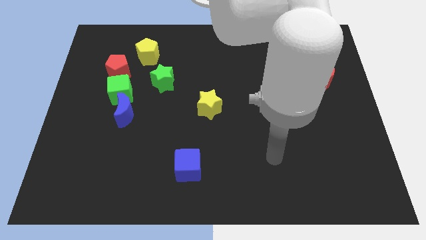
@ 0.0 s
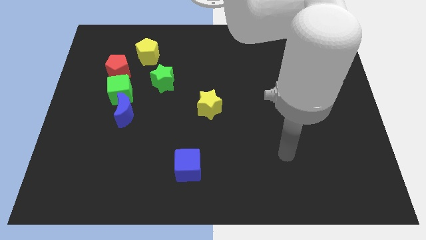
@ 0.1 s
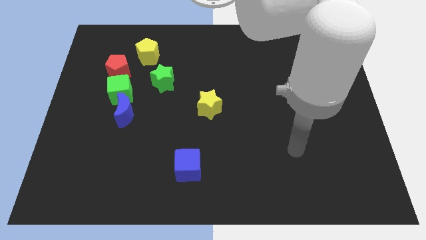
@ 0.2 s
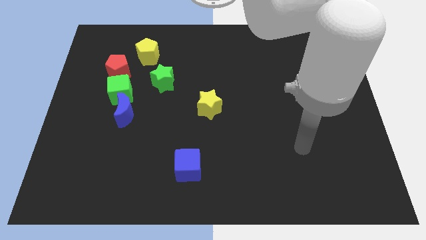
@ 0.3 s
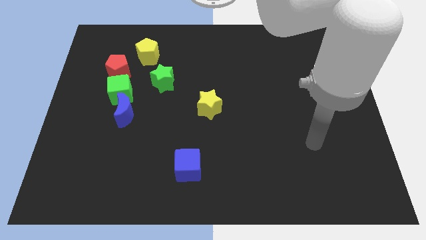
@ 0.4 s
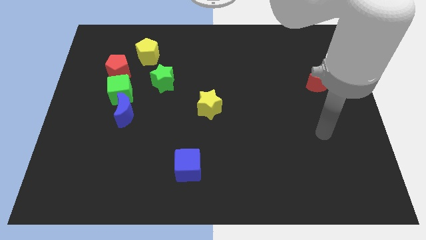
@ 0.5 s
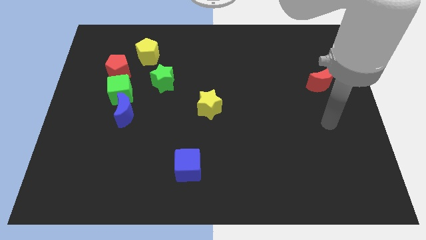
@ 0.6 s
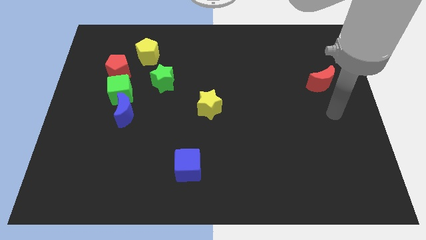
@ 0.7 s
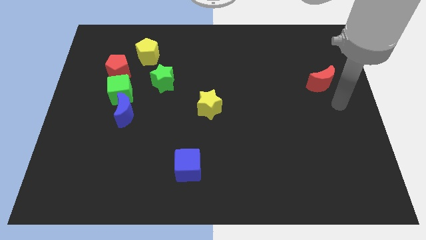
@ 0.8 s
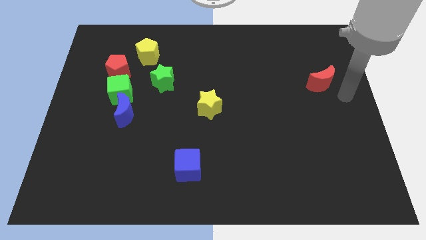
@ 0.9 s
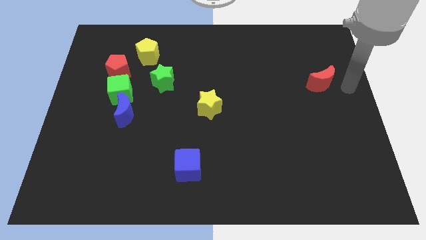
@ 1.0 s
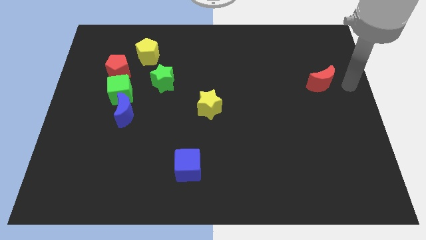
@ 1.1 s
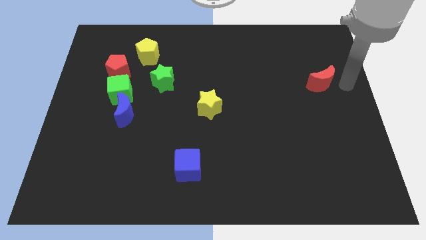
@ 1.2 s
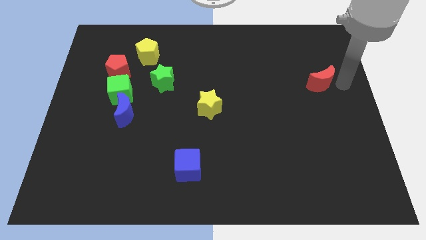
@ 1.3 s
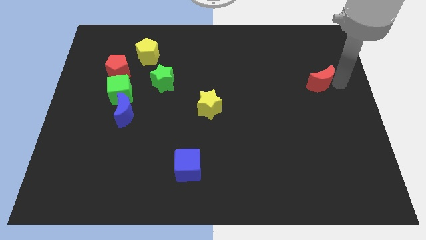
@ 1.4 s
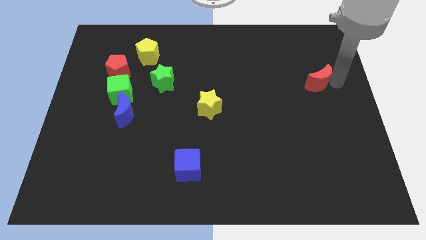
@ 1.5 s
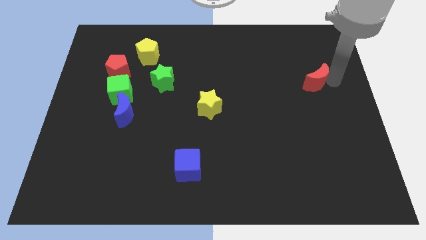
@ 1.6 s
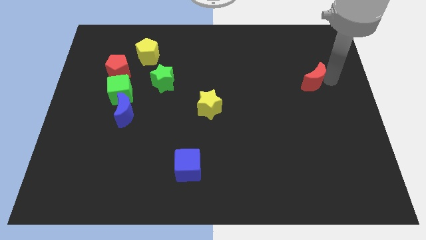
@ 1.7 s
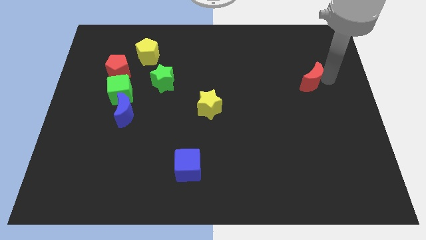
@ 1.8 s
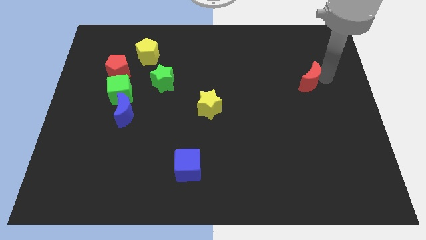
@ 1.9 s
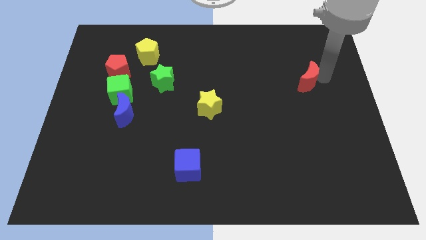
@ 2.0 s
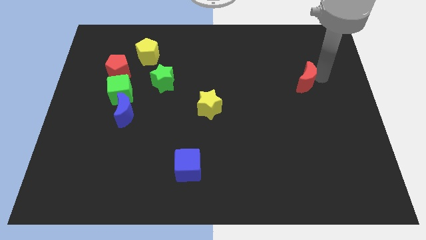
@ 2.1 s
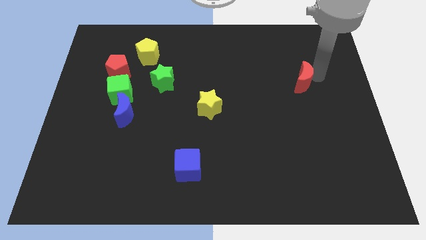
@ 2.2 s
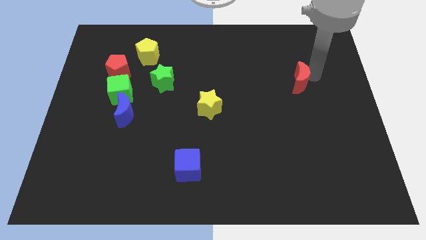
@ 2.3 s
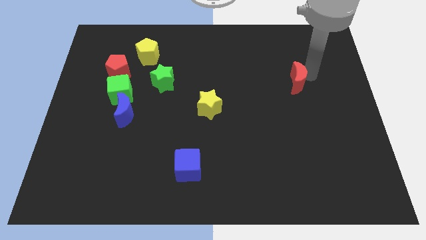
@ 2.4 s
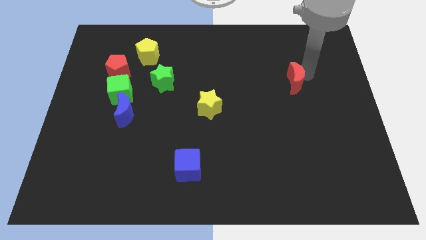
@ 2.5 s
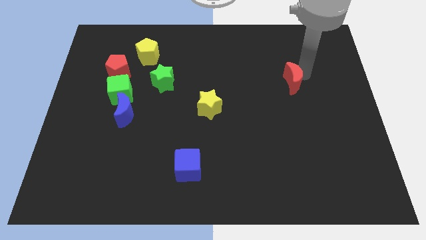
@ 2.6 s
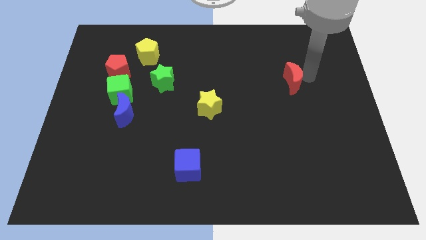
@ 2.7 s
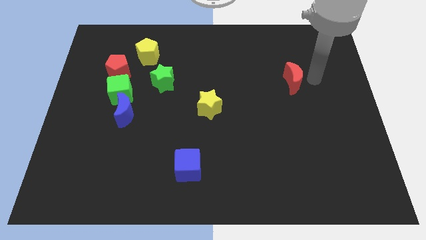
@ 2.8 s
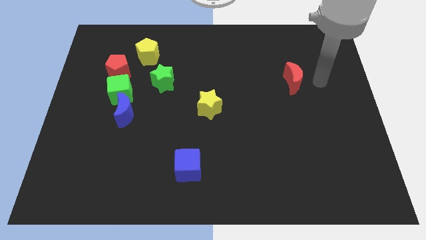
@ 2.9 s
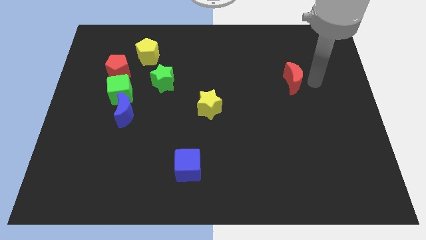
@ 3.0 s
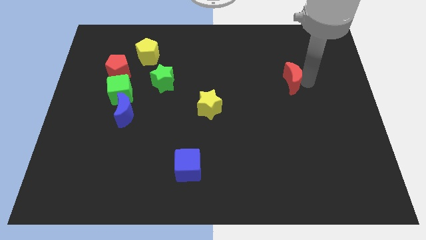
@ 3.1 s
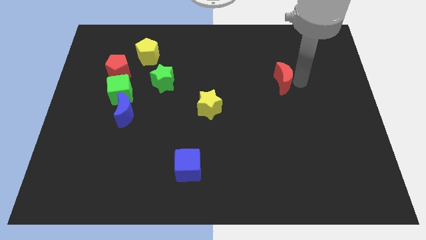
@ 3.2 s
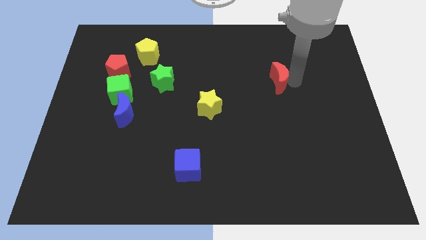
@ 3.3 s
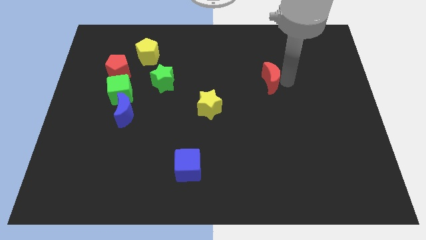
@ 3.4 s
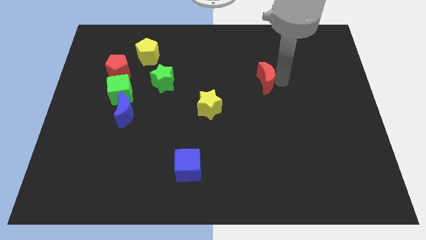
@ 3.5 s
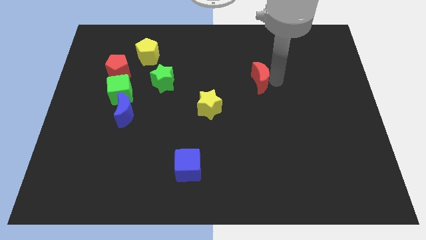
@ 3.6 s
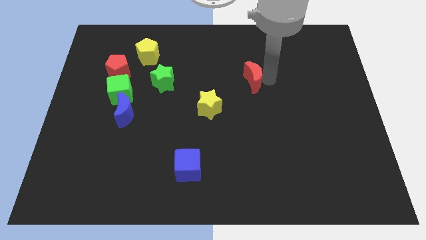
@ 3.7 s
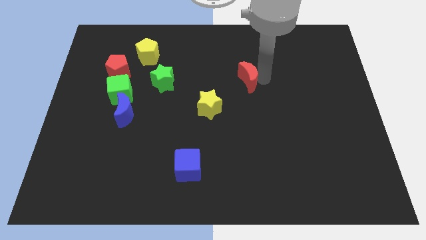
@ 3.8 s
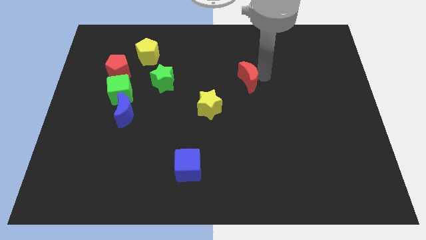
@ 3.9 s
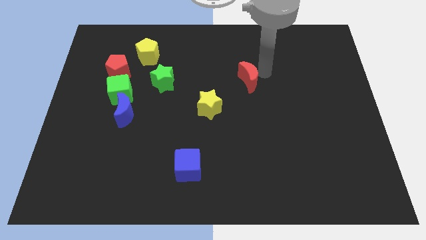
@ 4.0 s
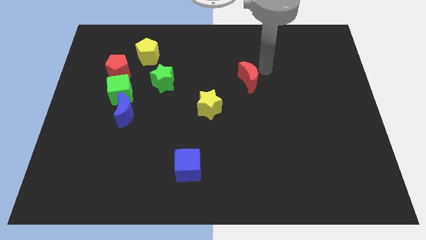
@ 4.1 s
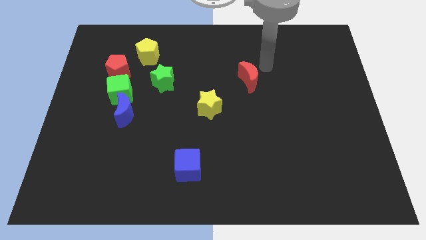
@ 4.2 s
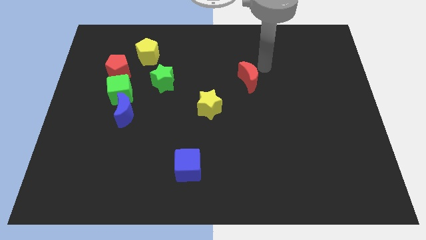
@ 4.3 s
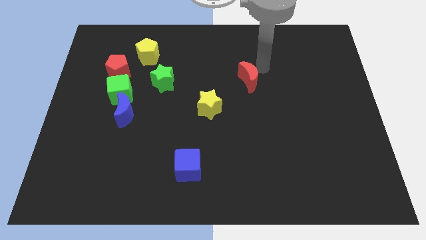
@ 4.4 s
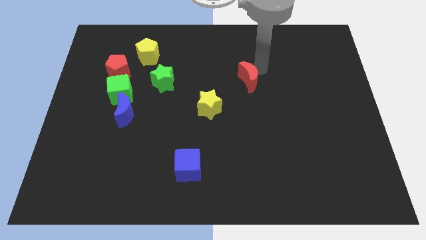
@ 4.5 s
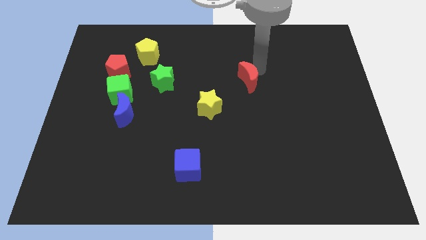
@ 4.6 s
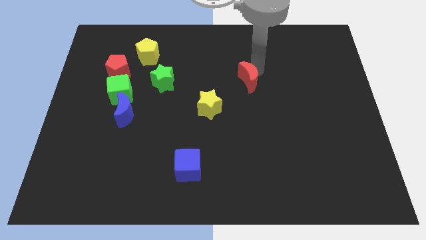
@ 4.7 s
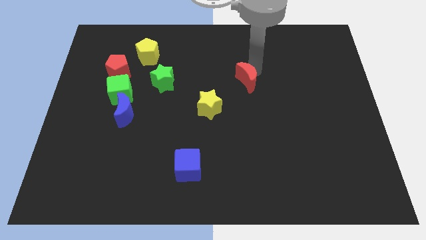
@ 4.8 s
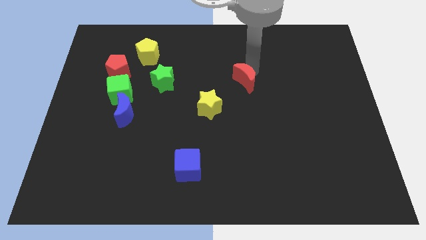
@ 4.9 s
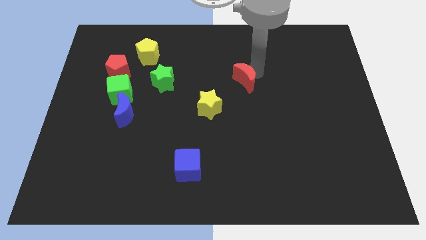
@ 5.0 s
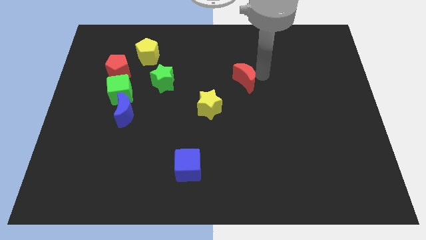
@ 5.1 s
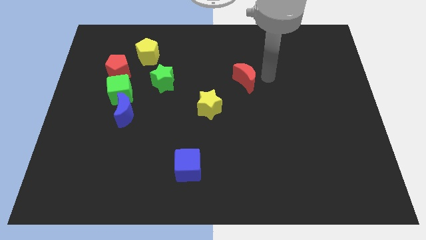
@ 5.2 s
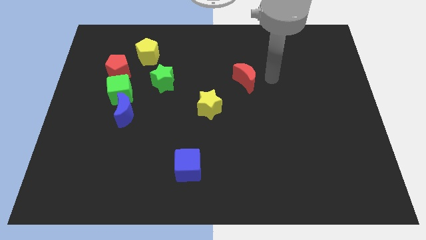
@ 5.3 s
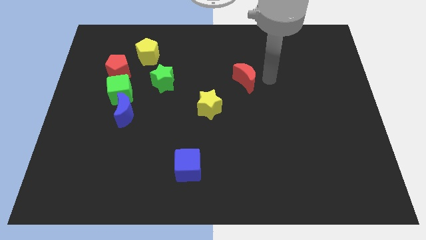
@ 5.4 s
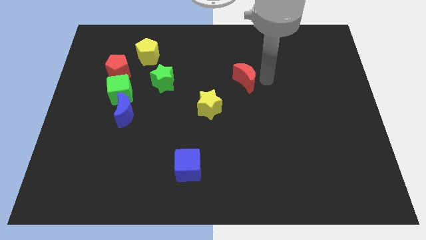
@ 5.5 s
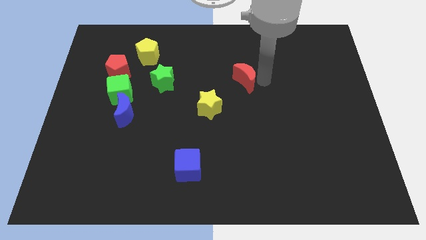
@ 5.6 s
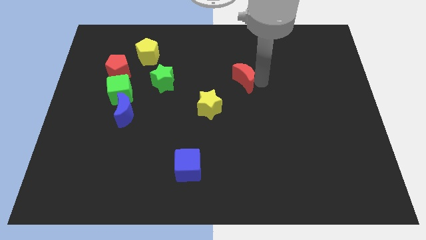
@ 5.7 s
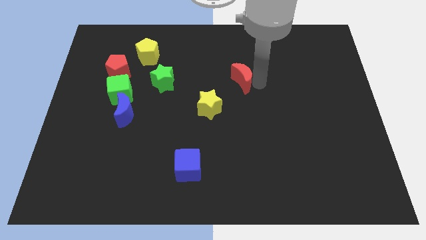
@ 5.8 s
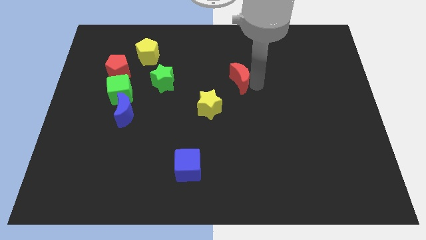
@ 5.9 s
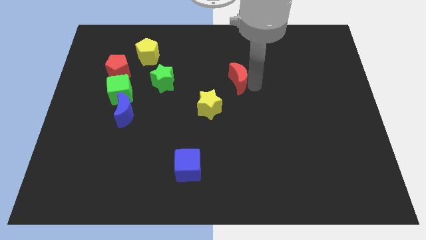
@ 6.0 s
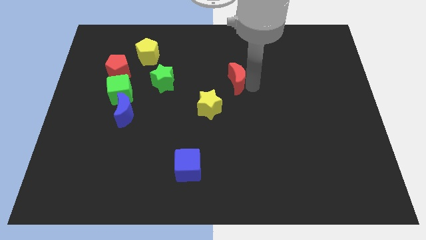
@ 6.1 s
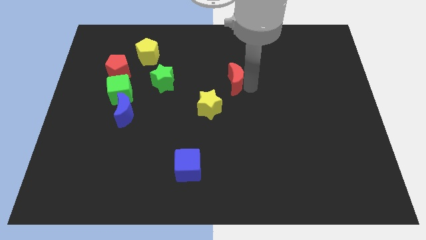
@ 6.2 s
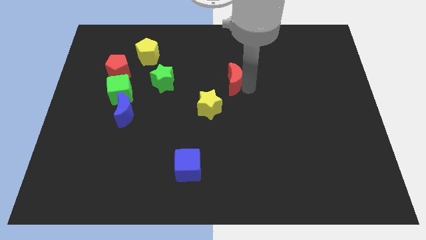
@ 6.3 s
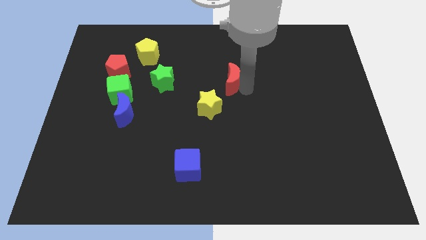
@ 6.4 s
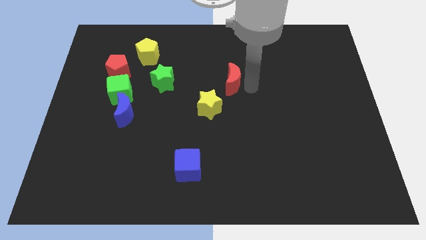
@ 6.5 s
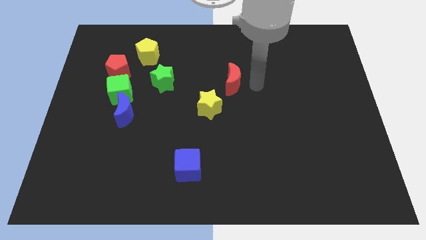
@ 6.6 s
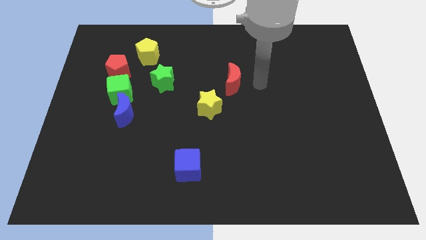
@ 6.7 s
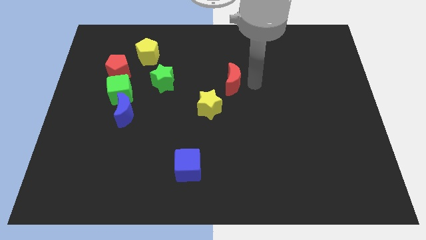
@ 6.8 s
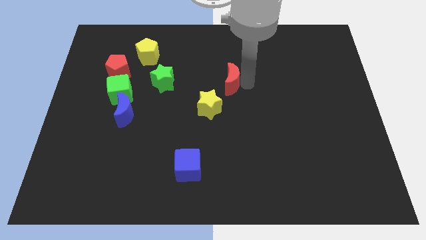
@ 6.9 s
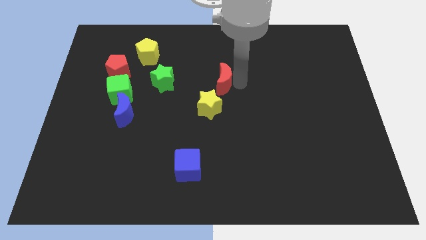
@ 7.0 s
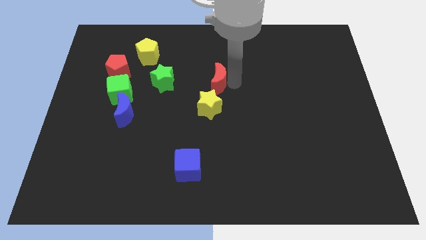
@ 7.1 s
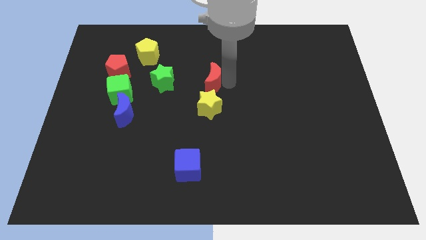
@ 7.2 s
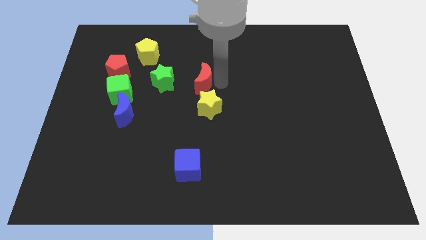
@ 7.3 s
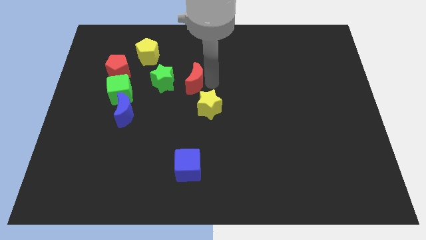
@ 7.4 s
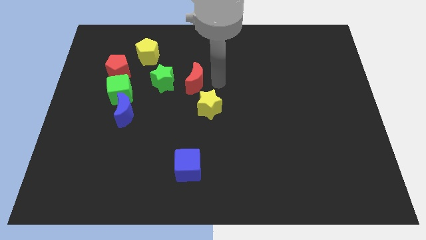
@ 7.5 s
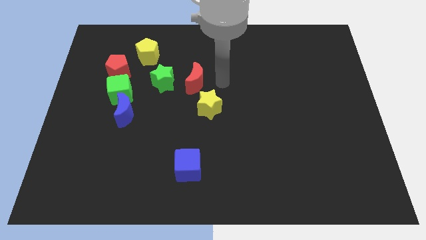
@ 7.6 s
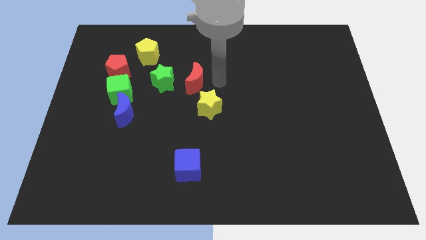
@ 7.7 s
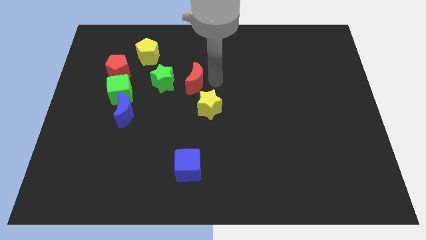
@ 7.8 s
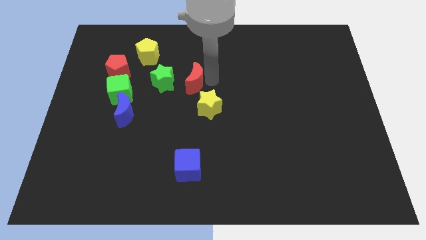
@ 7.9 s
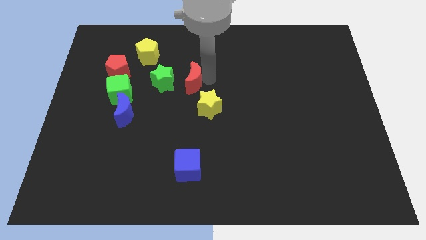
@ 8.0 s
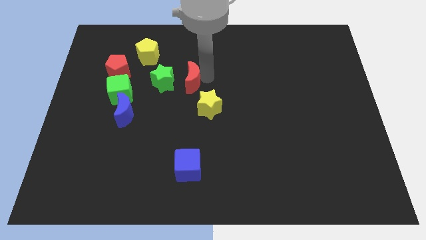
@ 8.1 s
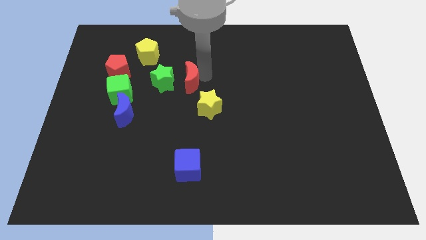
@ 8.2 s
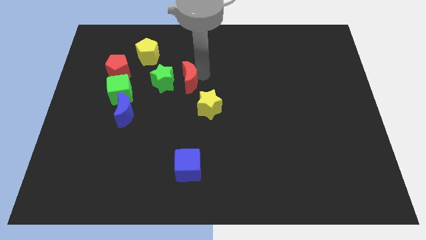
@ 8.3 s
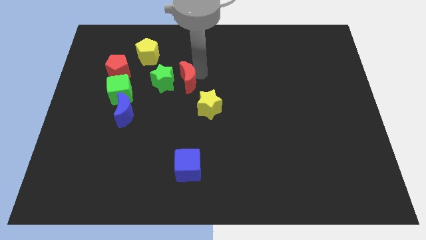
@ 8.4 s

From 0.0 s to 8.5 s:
push the red moon towards the green star
